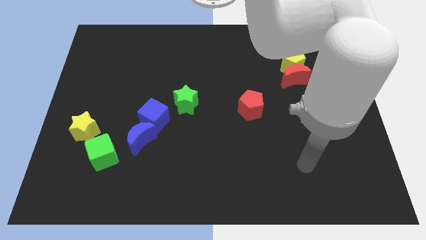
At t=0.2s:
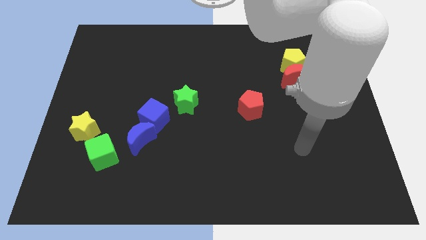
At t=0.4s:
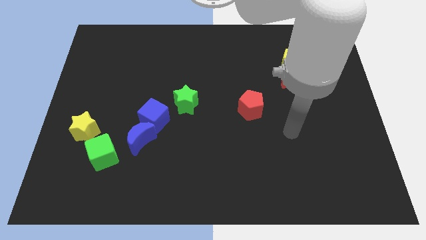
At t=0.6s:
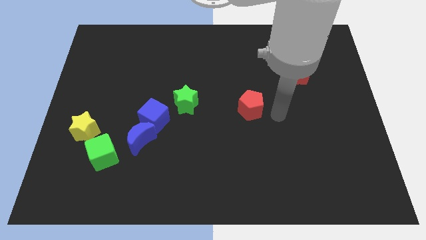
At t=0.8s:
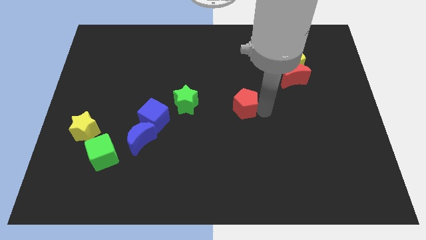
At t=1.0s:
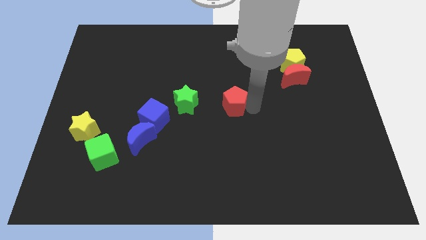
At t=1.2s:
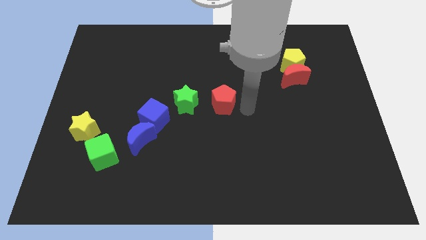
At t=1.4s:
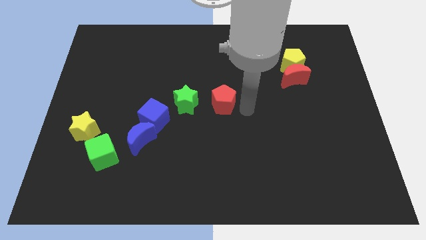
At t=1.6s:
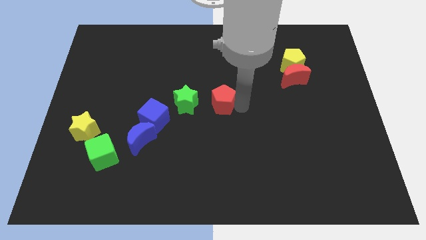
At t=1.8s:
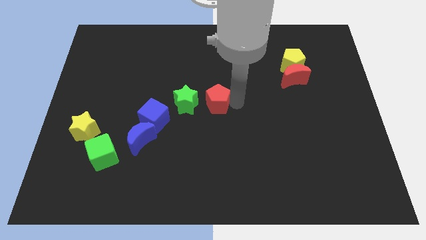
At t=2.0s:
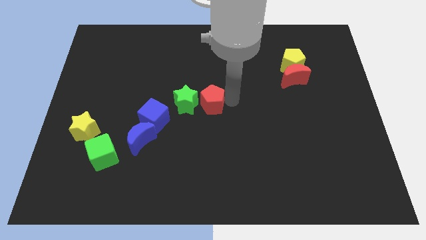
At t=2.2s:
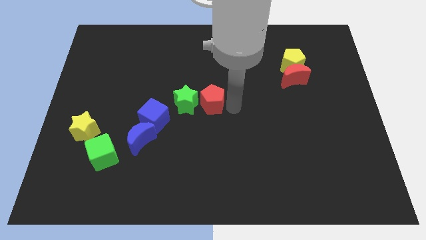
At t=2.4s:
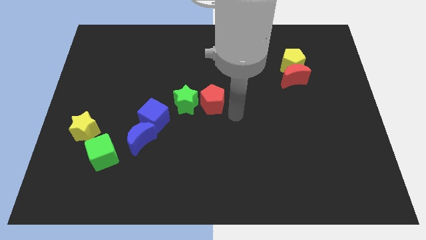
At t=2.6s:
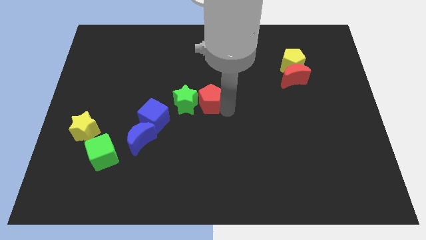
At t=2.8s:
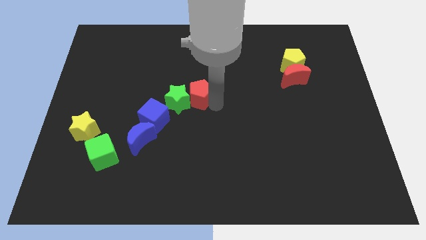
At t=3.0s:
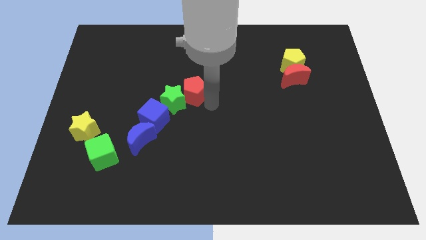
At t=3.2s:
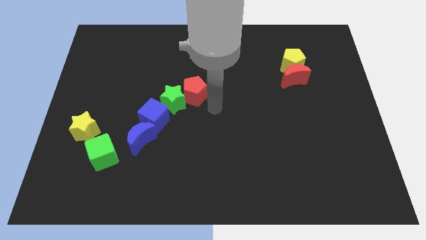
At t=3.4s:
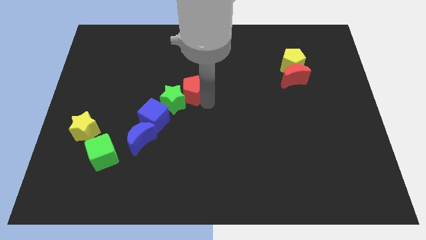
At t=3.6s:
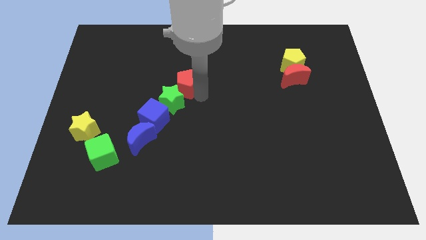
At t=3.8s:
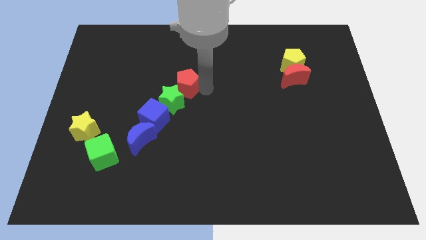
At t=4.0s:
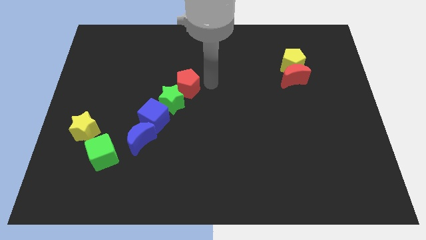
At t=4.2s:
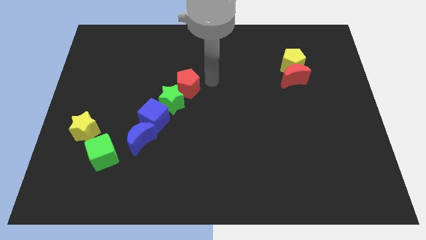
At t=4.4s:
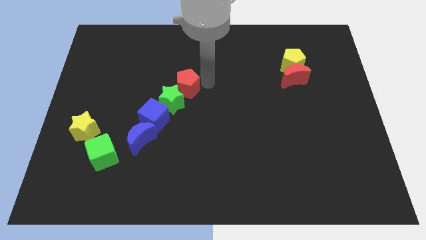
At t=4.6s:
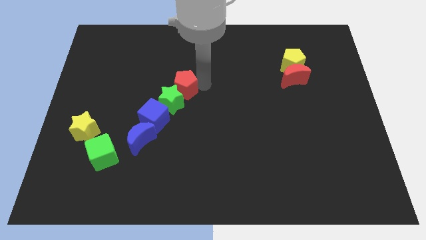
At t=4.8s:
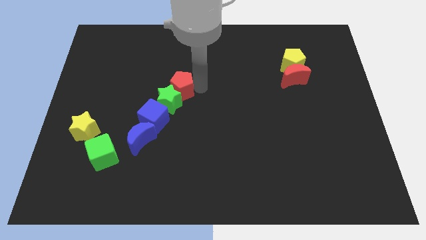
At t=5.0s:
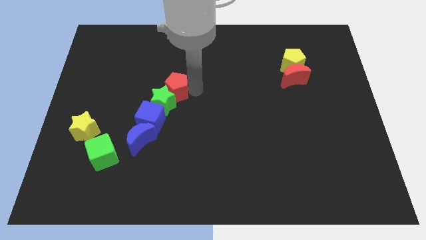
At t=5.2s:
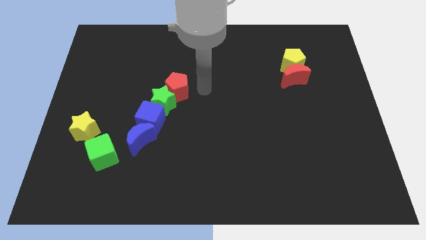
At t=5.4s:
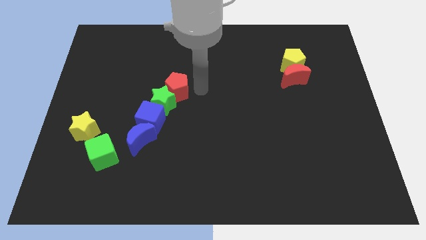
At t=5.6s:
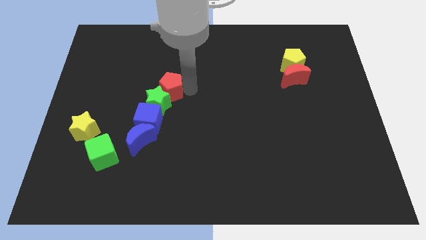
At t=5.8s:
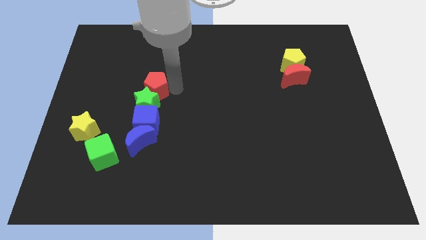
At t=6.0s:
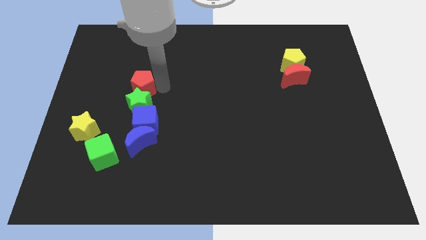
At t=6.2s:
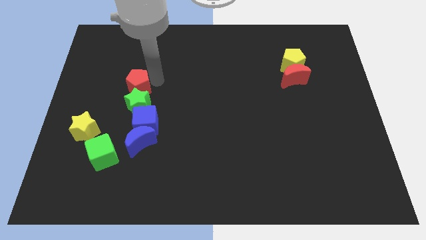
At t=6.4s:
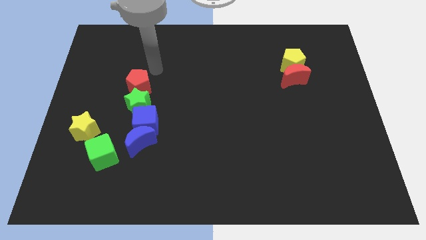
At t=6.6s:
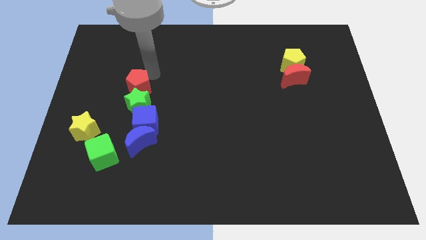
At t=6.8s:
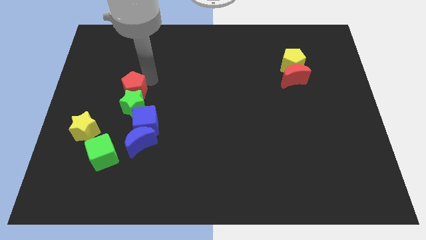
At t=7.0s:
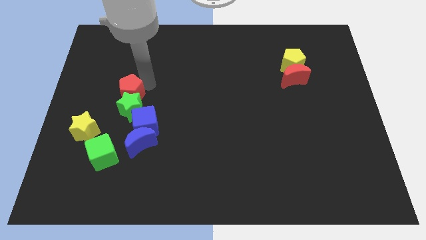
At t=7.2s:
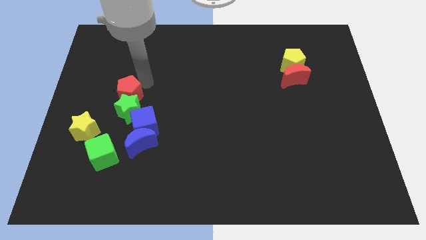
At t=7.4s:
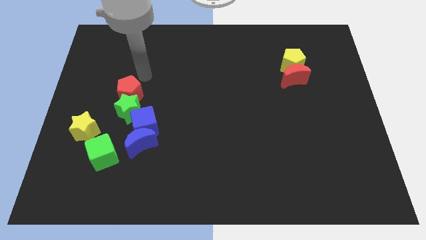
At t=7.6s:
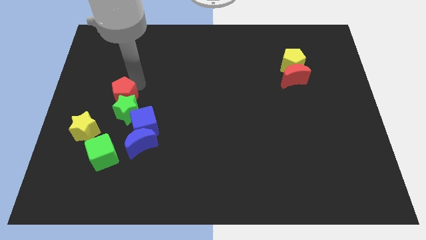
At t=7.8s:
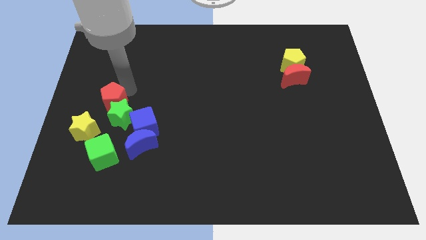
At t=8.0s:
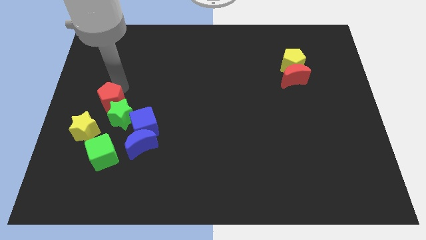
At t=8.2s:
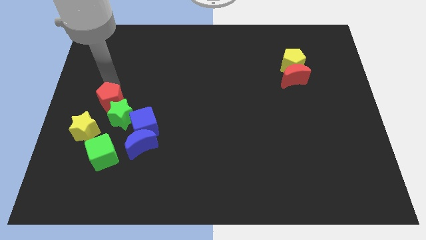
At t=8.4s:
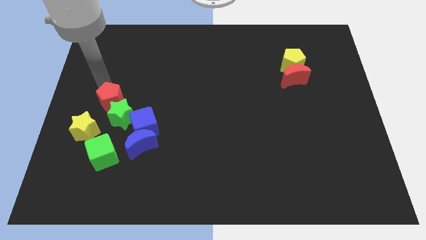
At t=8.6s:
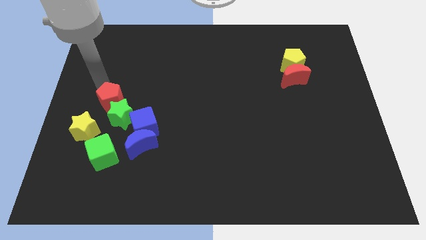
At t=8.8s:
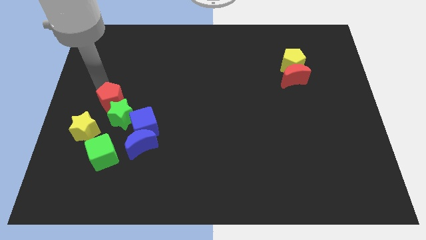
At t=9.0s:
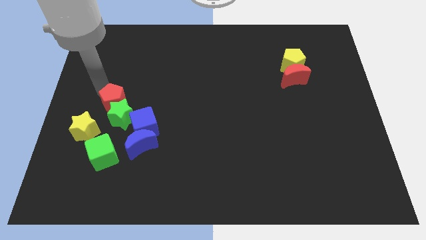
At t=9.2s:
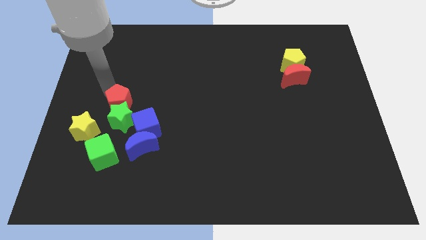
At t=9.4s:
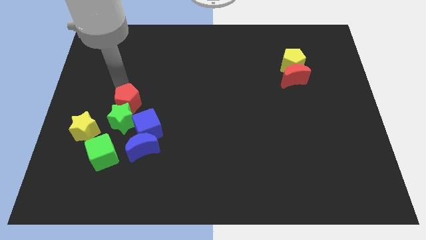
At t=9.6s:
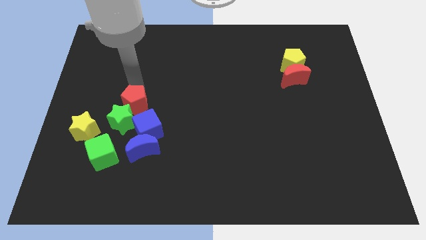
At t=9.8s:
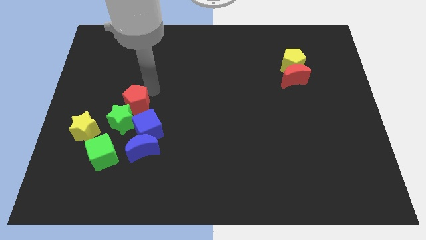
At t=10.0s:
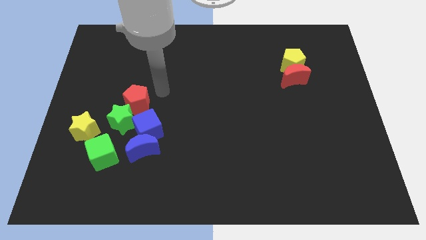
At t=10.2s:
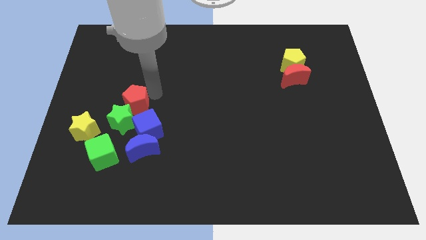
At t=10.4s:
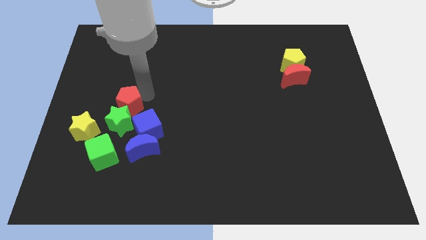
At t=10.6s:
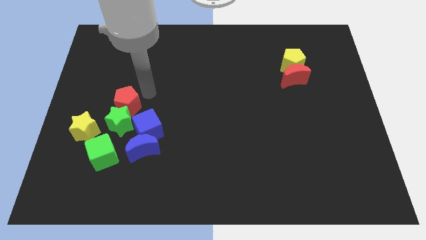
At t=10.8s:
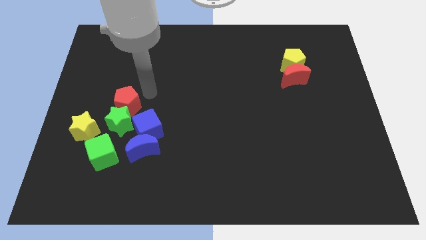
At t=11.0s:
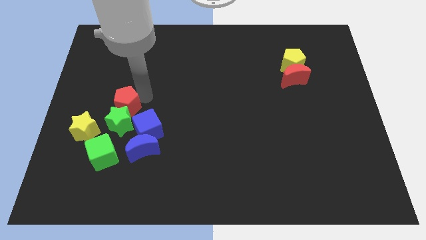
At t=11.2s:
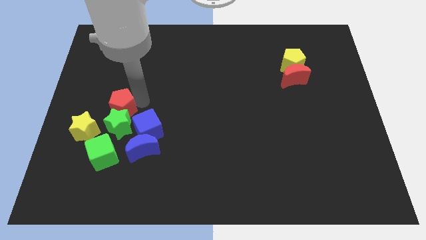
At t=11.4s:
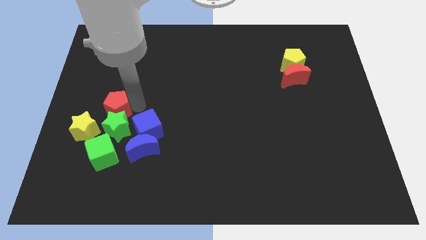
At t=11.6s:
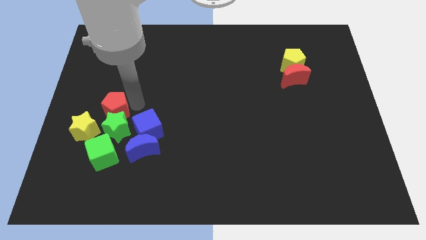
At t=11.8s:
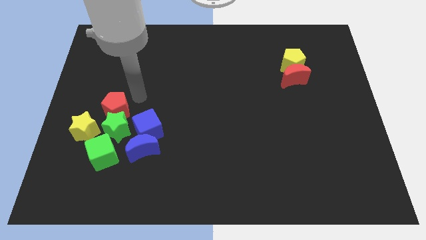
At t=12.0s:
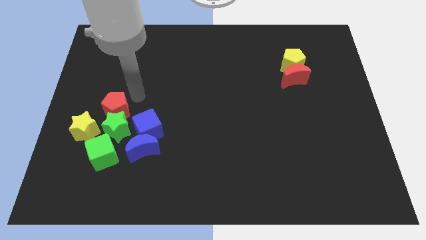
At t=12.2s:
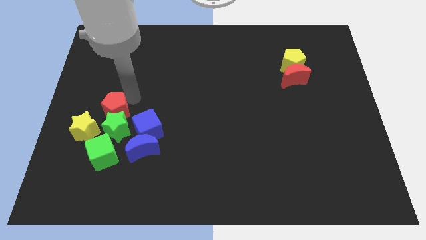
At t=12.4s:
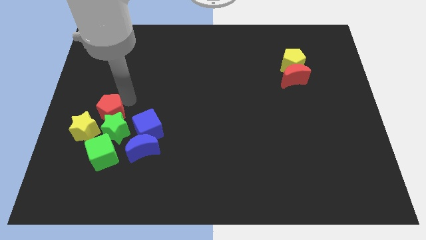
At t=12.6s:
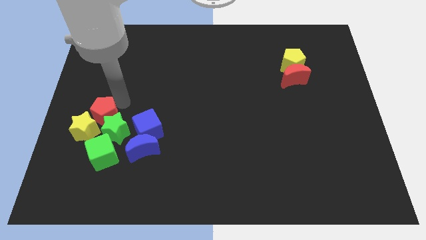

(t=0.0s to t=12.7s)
push the red pentagon next to the yellow star
